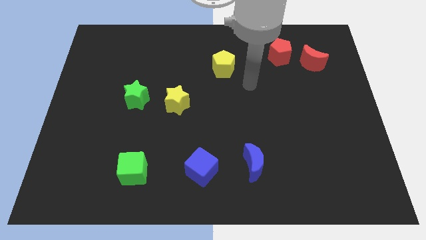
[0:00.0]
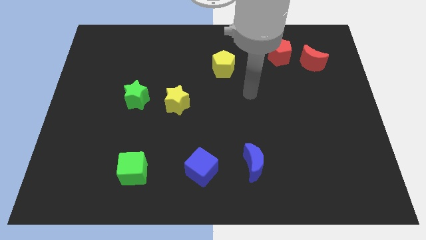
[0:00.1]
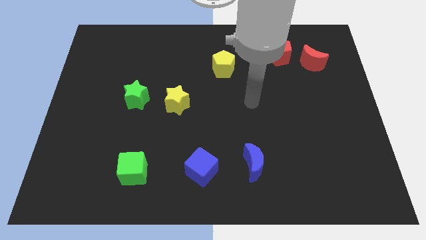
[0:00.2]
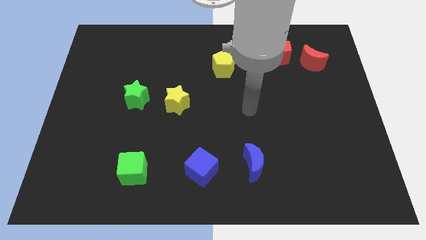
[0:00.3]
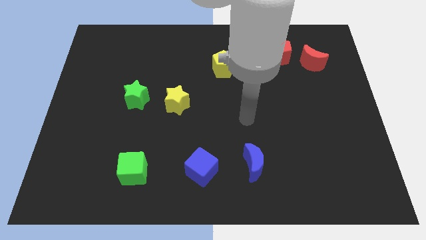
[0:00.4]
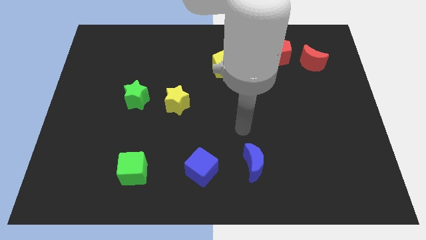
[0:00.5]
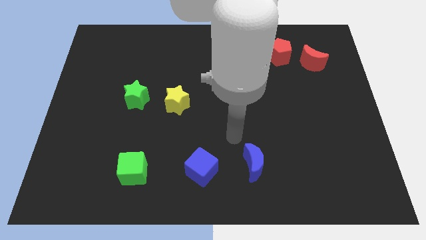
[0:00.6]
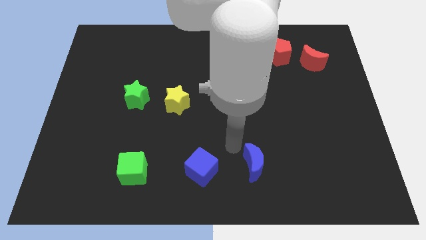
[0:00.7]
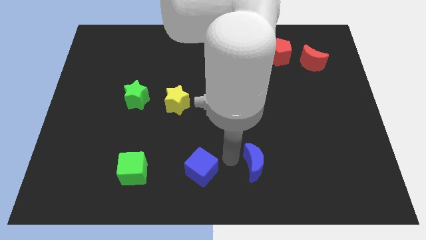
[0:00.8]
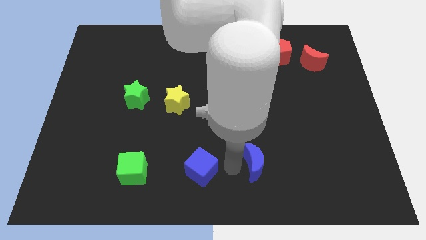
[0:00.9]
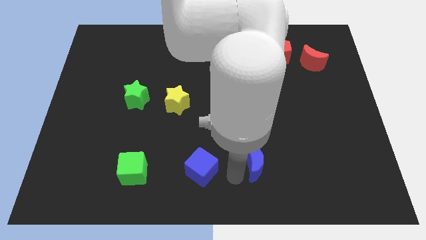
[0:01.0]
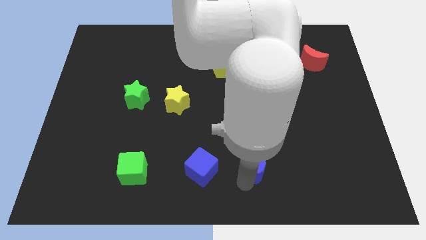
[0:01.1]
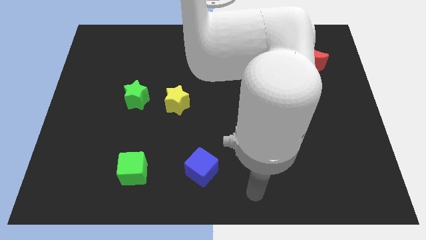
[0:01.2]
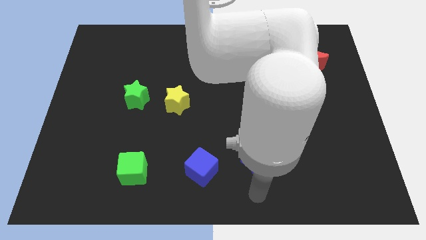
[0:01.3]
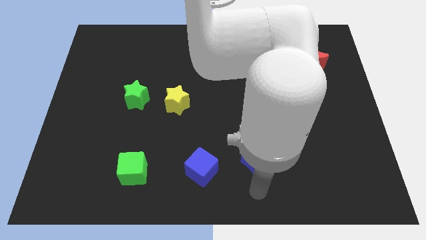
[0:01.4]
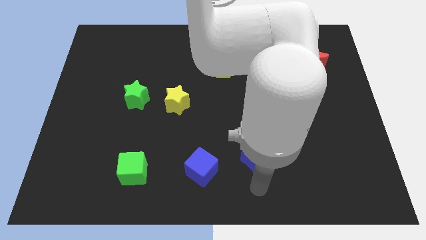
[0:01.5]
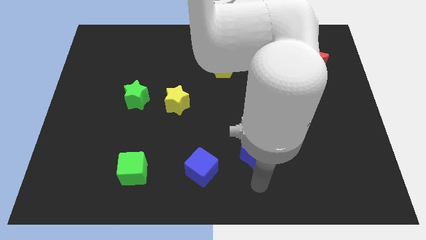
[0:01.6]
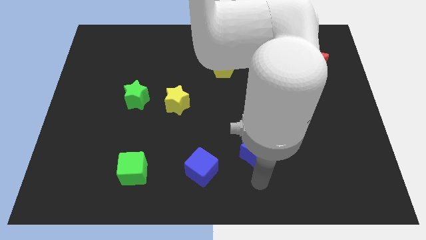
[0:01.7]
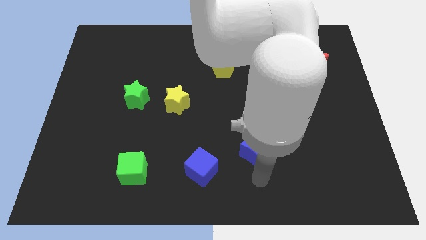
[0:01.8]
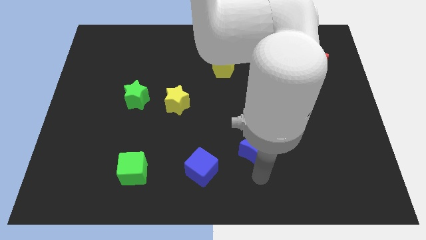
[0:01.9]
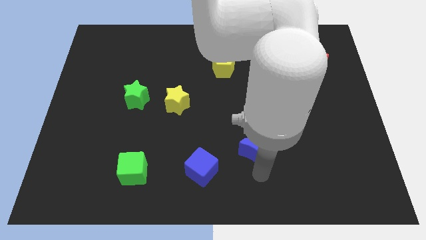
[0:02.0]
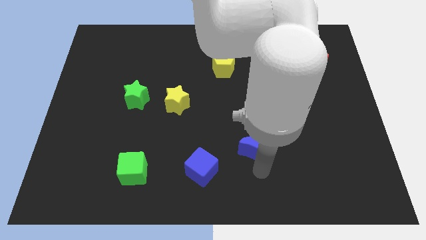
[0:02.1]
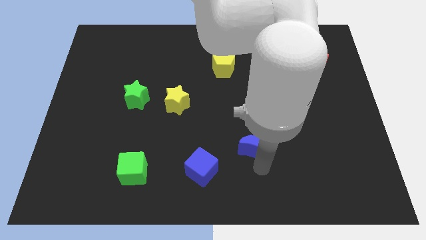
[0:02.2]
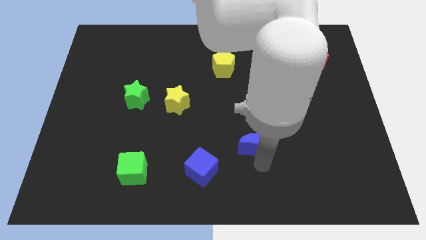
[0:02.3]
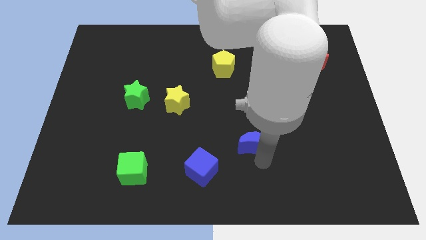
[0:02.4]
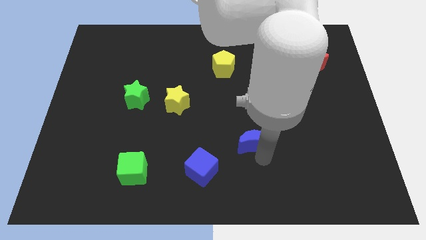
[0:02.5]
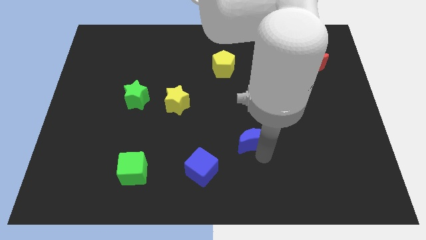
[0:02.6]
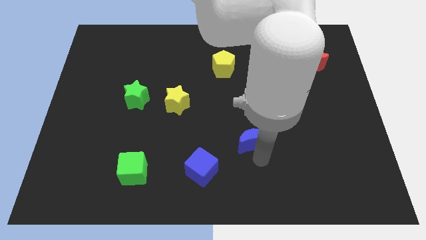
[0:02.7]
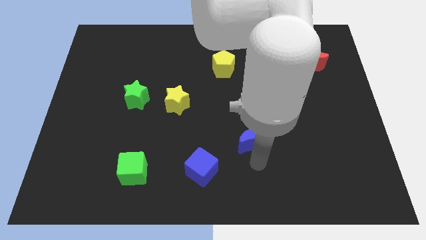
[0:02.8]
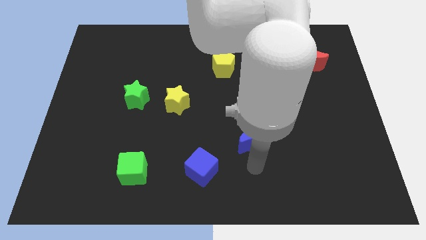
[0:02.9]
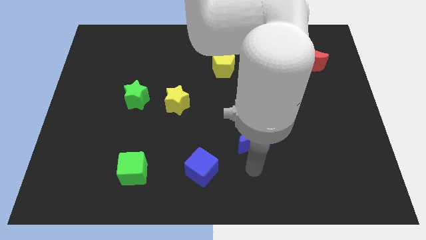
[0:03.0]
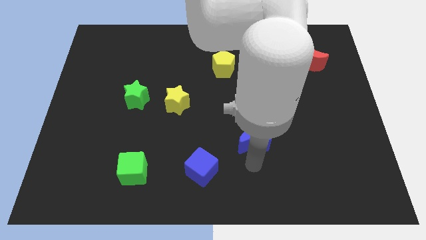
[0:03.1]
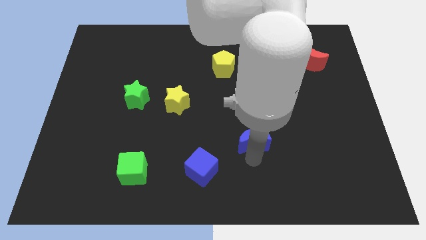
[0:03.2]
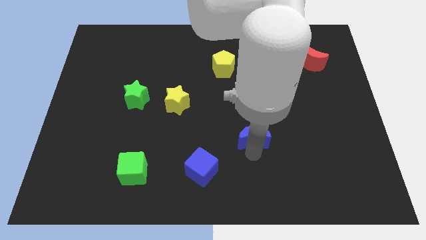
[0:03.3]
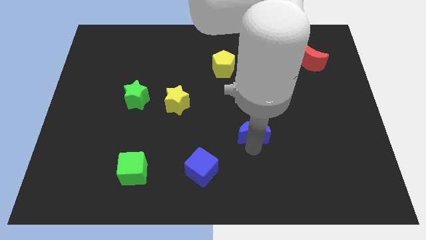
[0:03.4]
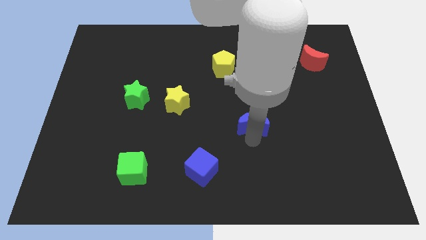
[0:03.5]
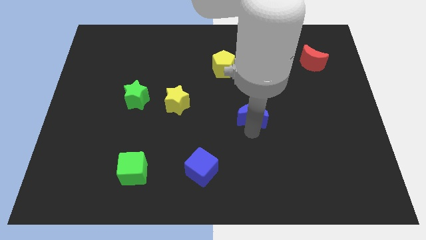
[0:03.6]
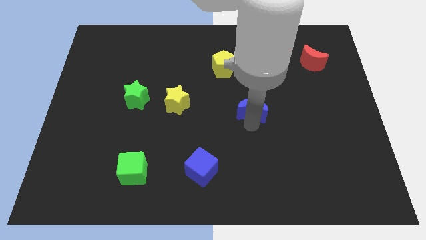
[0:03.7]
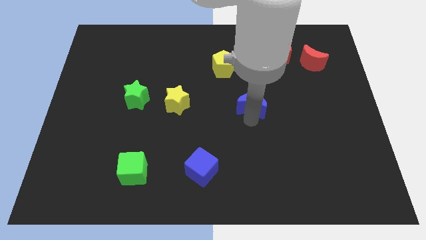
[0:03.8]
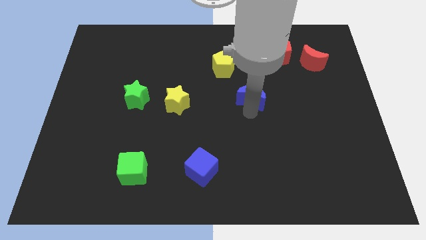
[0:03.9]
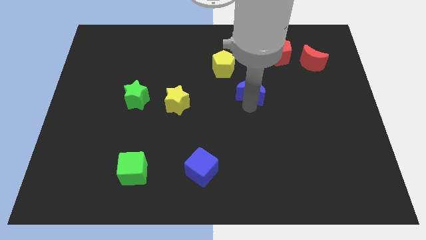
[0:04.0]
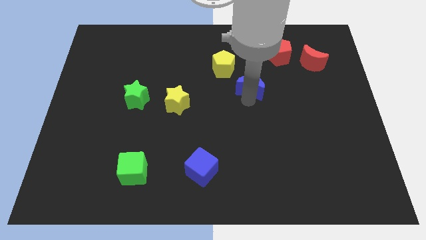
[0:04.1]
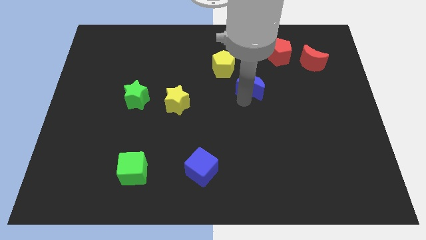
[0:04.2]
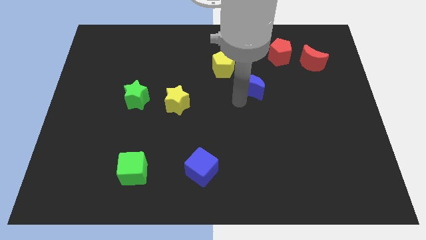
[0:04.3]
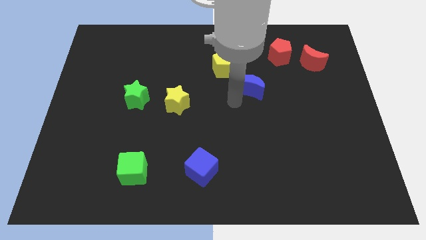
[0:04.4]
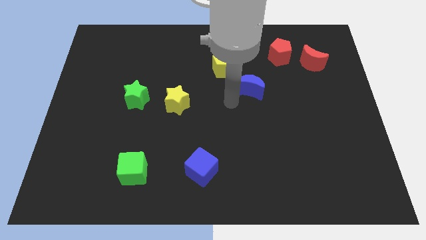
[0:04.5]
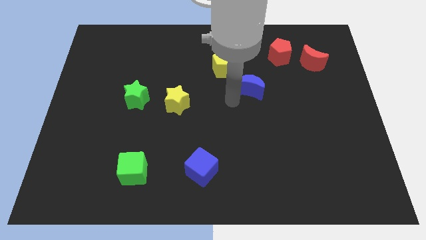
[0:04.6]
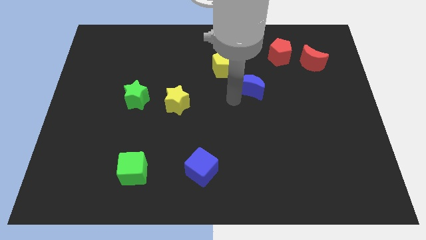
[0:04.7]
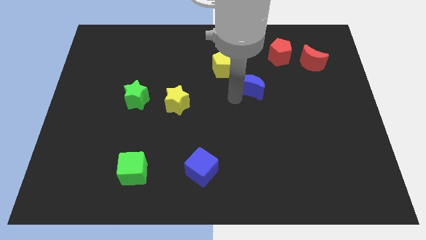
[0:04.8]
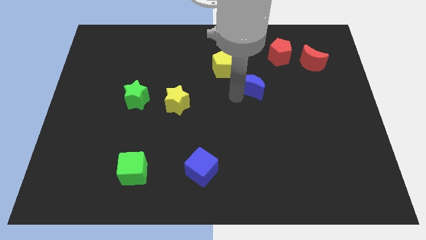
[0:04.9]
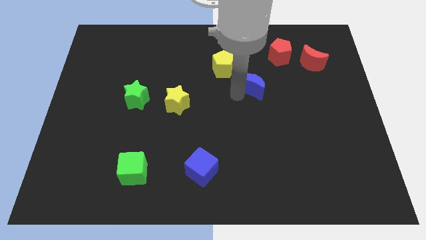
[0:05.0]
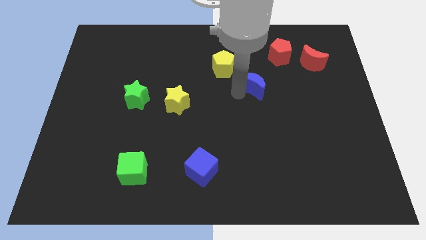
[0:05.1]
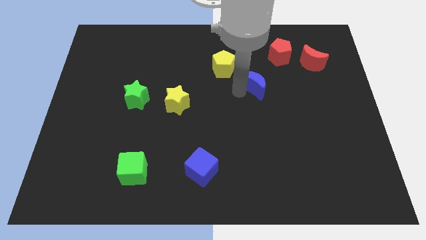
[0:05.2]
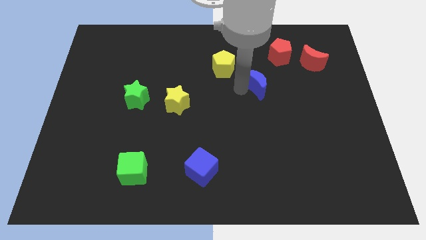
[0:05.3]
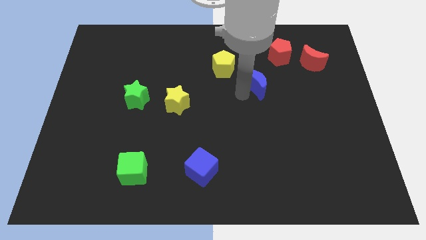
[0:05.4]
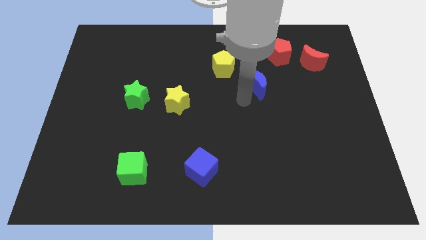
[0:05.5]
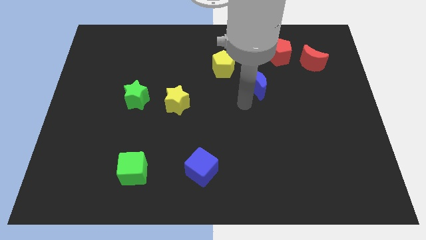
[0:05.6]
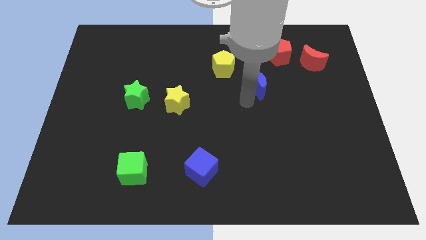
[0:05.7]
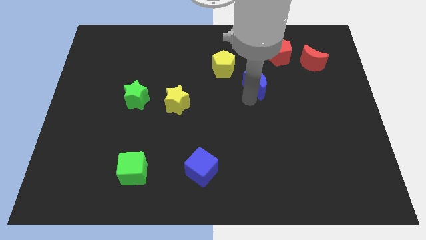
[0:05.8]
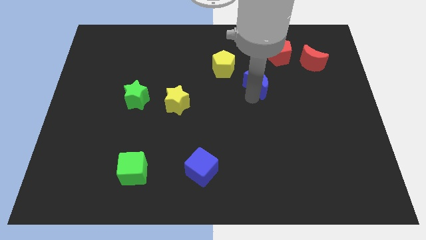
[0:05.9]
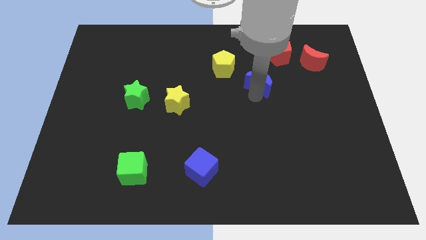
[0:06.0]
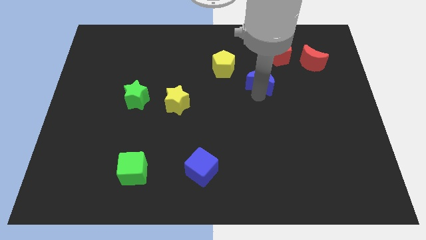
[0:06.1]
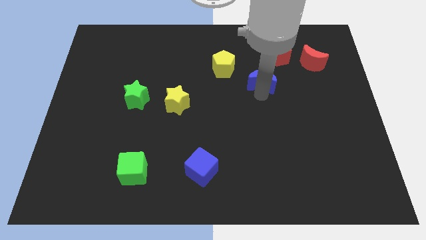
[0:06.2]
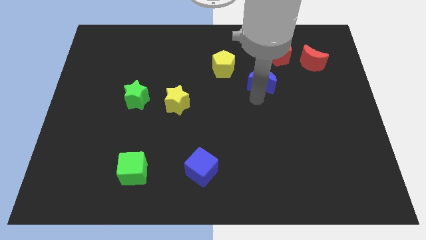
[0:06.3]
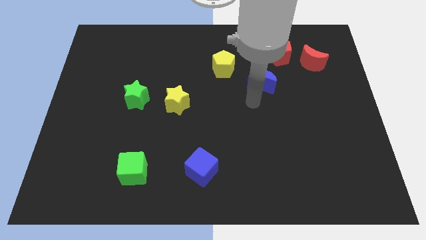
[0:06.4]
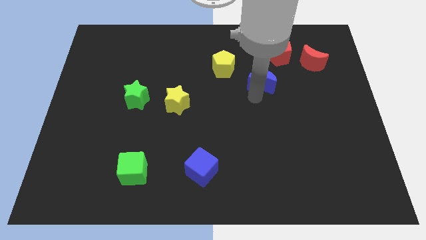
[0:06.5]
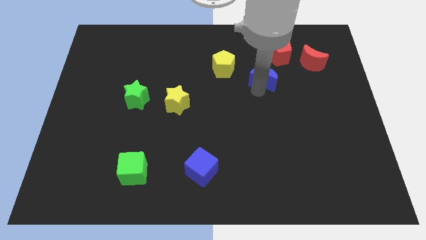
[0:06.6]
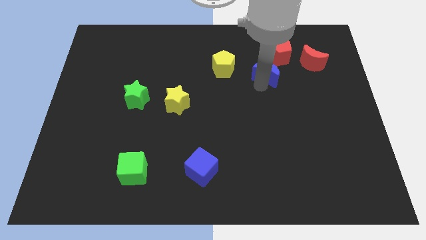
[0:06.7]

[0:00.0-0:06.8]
slide the blue moon just left of the red moon

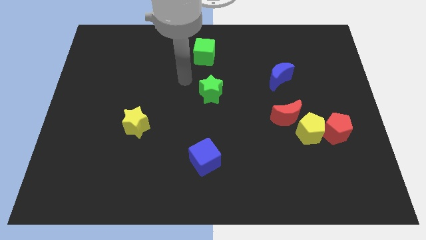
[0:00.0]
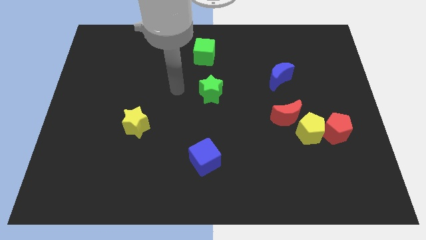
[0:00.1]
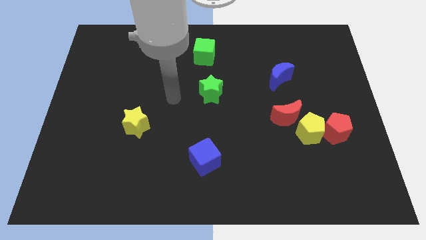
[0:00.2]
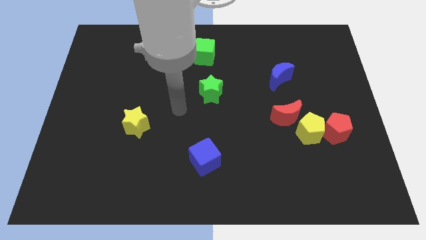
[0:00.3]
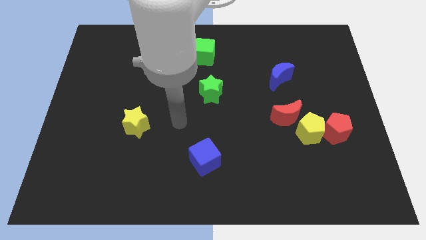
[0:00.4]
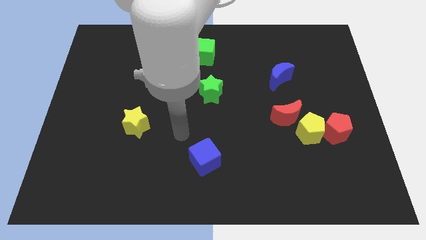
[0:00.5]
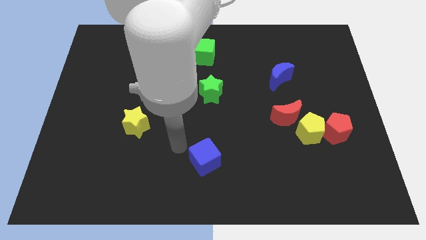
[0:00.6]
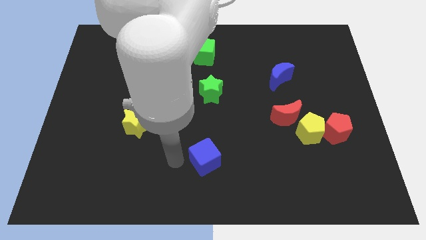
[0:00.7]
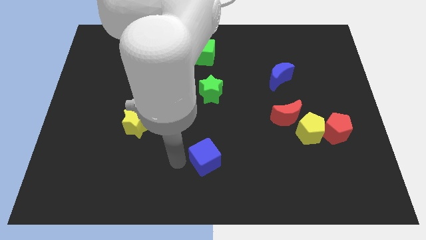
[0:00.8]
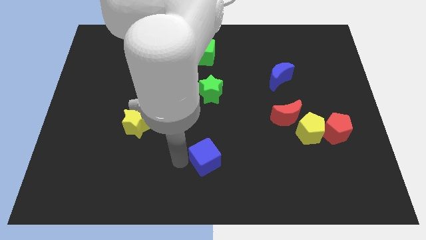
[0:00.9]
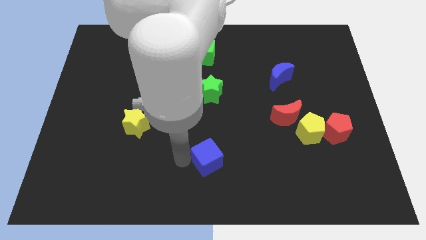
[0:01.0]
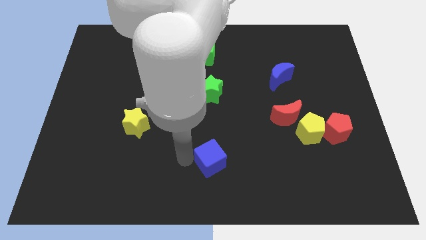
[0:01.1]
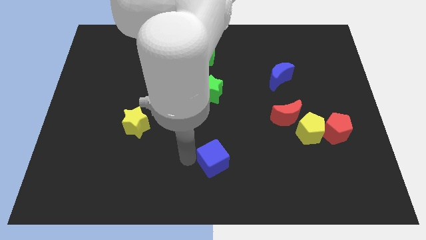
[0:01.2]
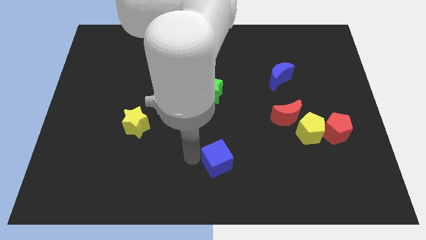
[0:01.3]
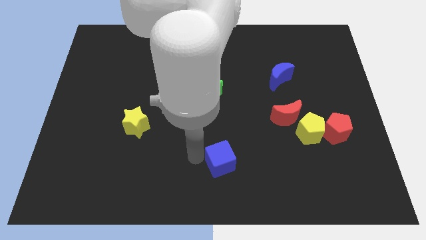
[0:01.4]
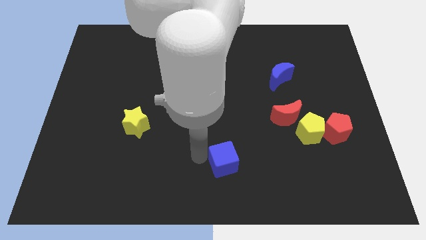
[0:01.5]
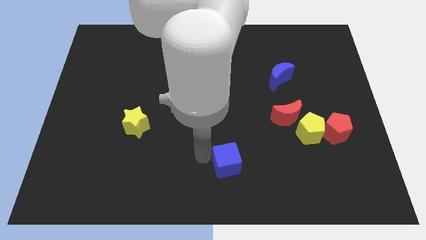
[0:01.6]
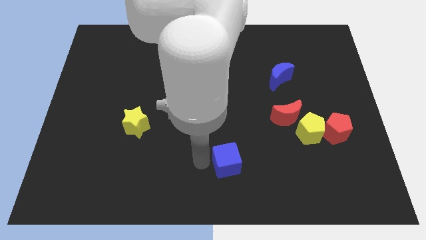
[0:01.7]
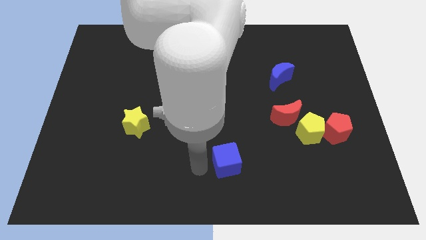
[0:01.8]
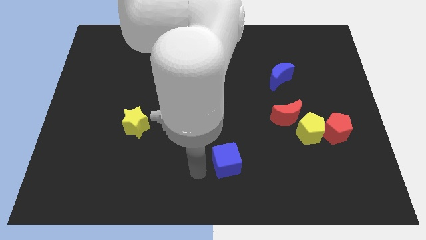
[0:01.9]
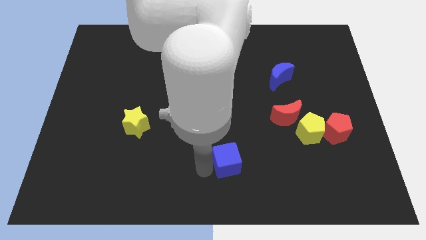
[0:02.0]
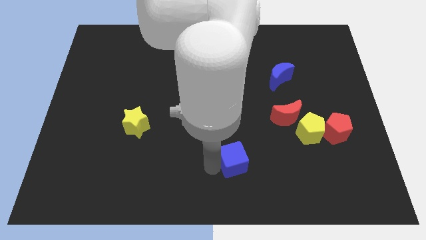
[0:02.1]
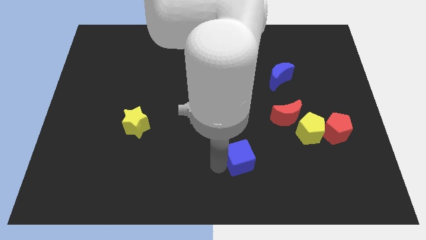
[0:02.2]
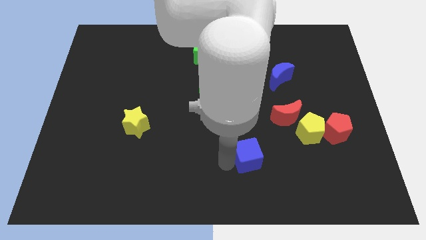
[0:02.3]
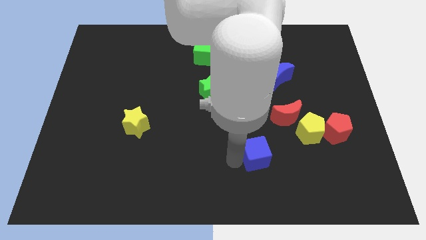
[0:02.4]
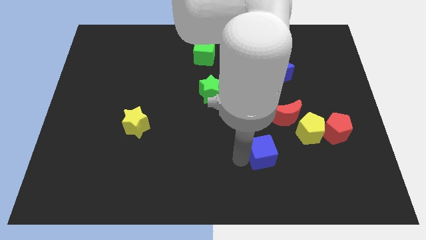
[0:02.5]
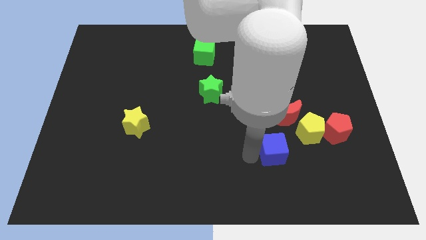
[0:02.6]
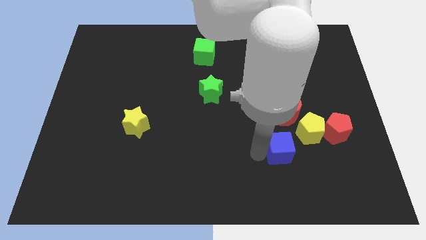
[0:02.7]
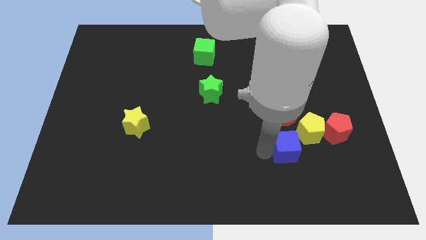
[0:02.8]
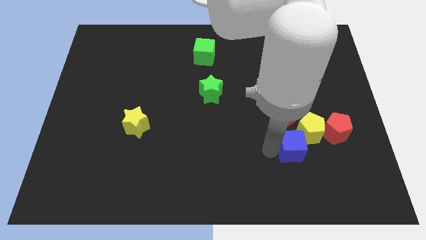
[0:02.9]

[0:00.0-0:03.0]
move the blue cube to the bottom left side of the red pentagon
